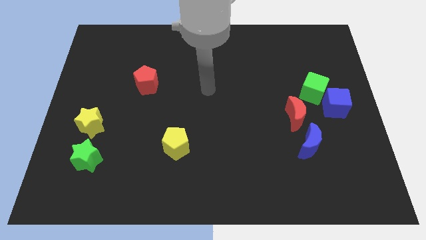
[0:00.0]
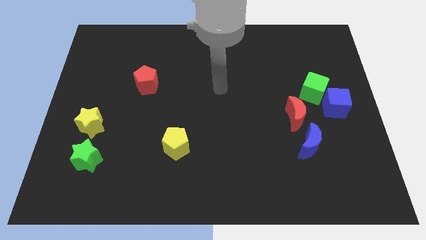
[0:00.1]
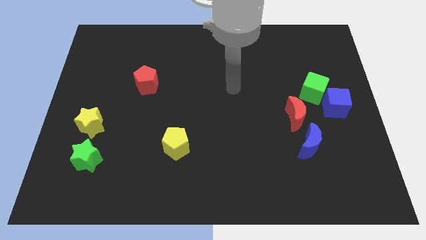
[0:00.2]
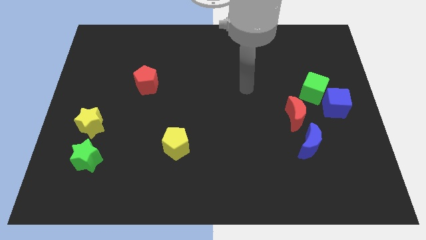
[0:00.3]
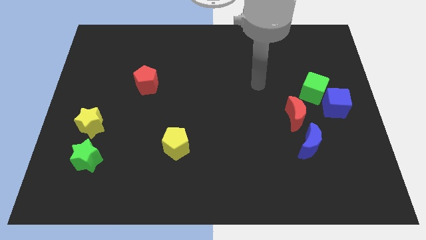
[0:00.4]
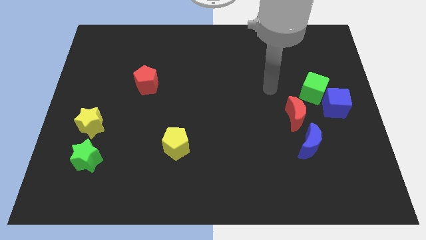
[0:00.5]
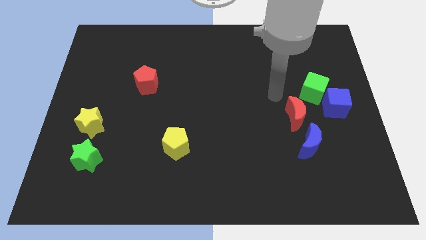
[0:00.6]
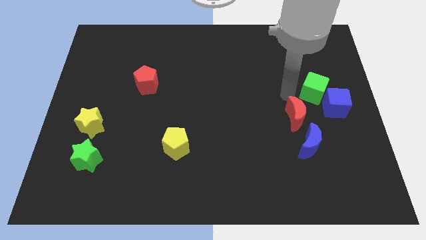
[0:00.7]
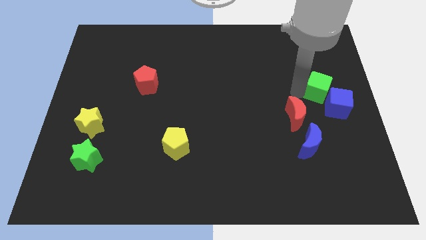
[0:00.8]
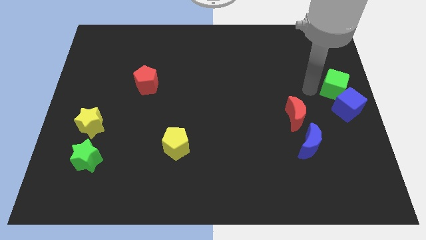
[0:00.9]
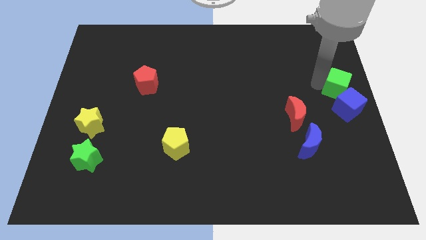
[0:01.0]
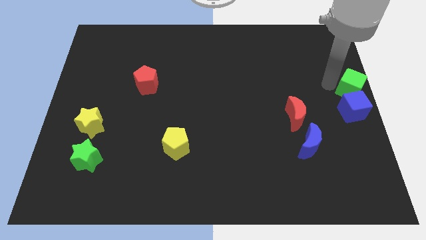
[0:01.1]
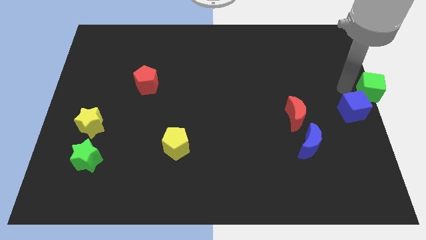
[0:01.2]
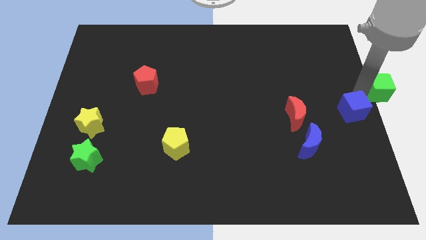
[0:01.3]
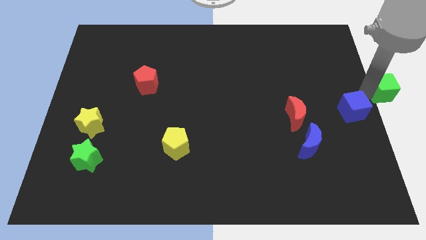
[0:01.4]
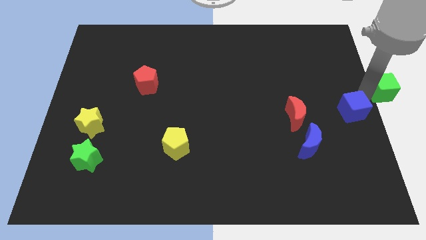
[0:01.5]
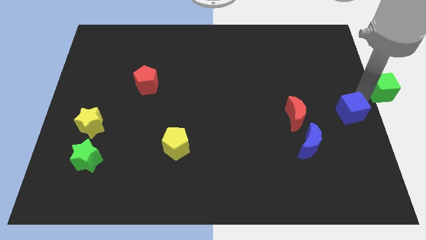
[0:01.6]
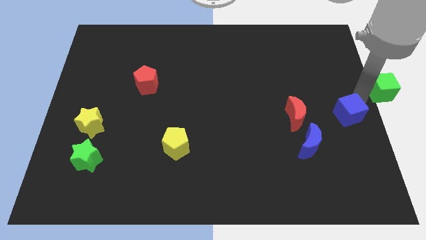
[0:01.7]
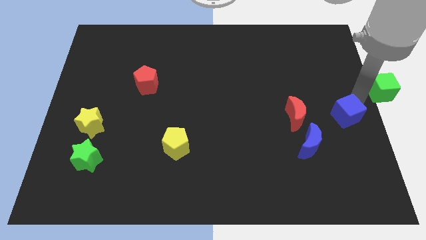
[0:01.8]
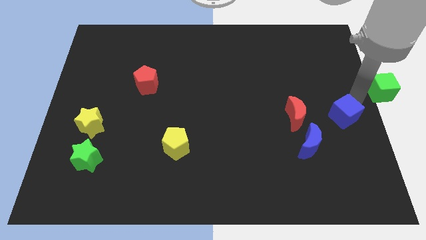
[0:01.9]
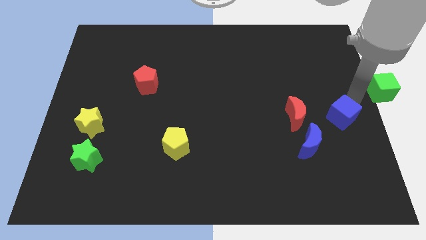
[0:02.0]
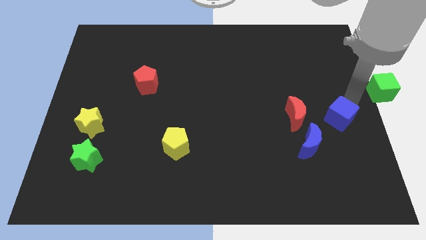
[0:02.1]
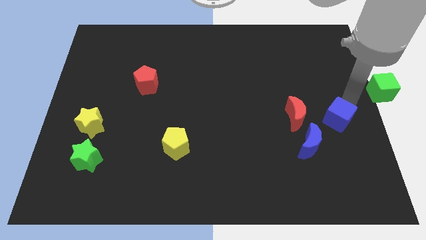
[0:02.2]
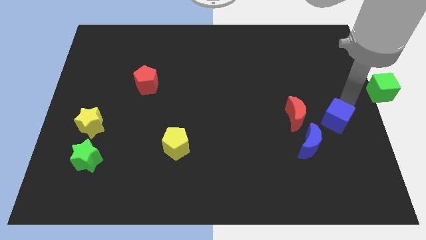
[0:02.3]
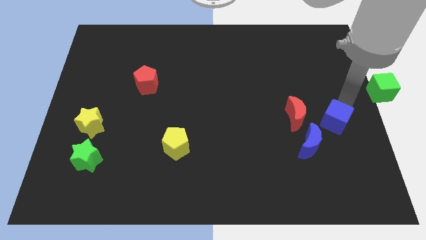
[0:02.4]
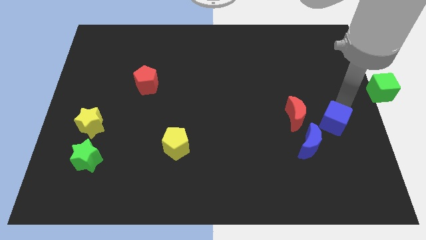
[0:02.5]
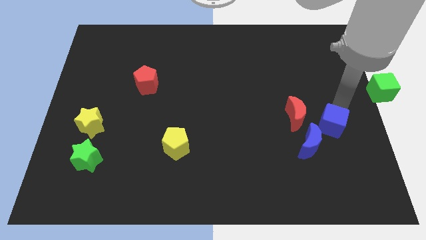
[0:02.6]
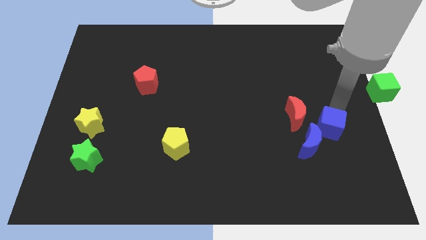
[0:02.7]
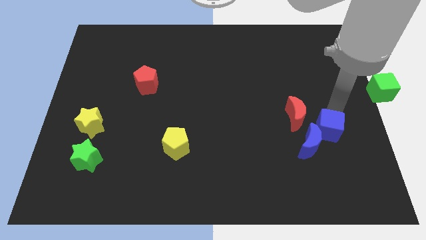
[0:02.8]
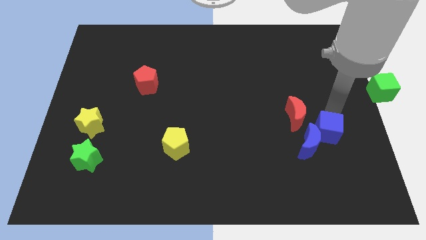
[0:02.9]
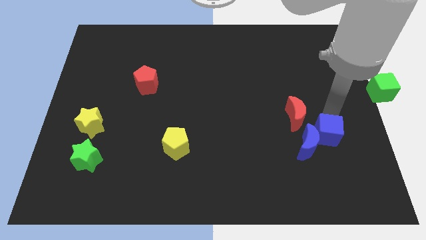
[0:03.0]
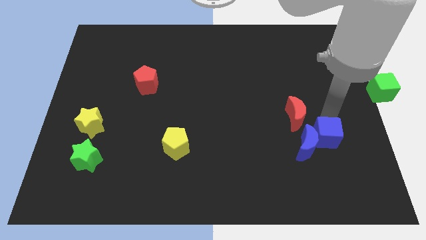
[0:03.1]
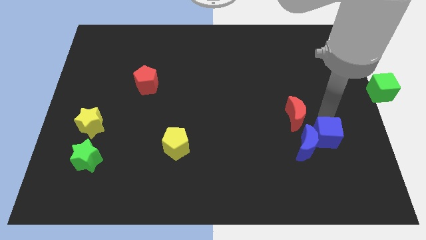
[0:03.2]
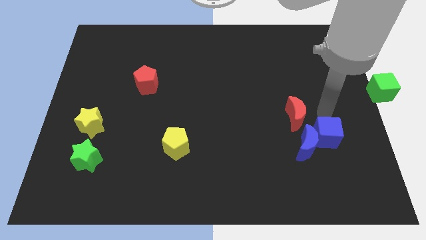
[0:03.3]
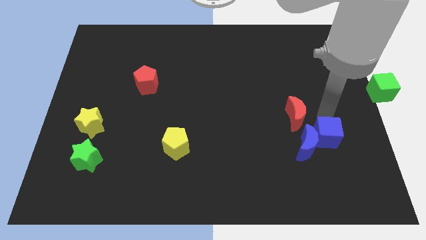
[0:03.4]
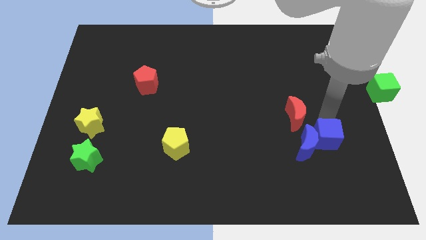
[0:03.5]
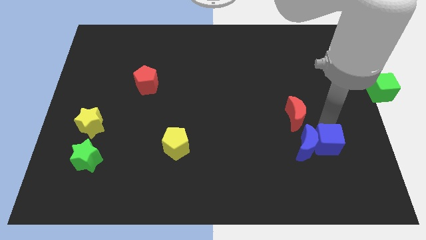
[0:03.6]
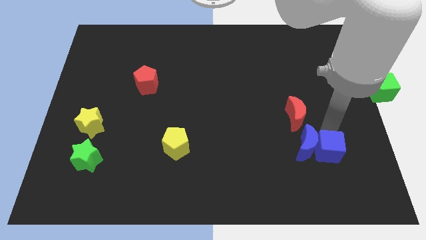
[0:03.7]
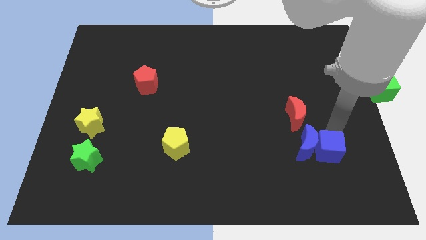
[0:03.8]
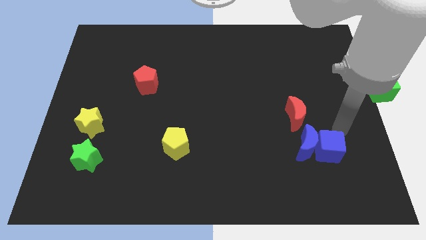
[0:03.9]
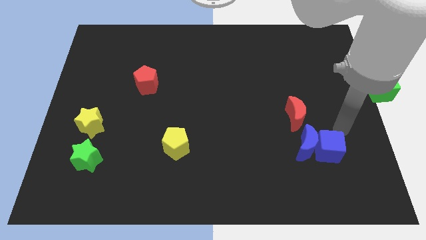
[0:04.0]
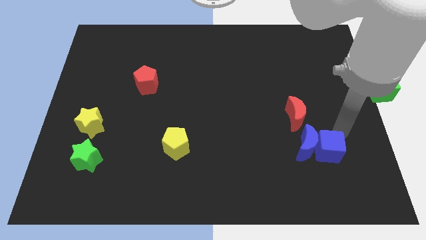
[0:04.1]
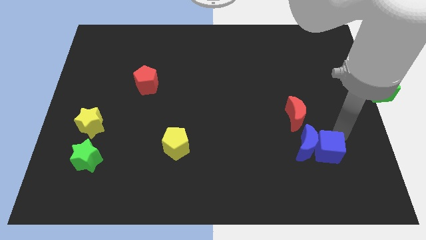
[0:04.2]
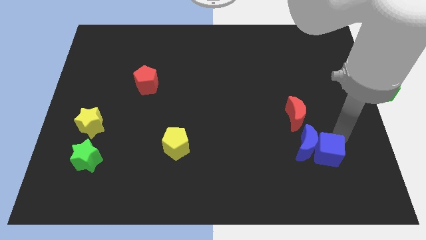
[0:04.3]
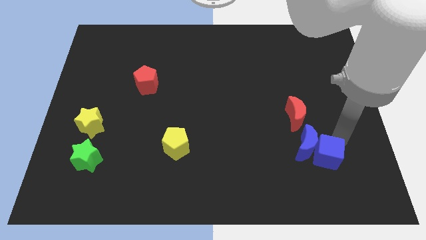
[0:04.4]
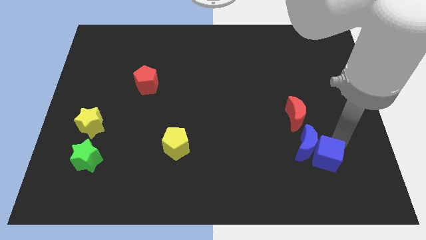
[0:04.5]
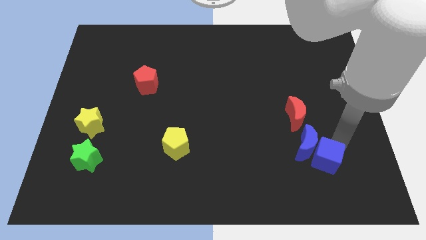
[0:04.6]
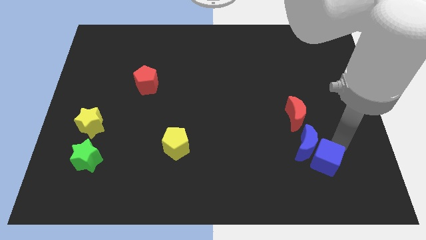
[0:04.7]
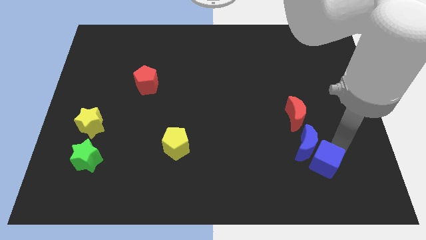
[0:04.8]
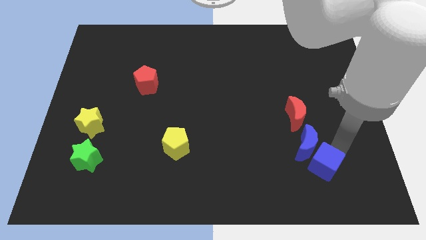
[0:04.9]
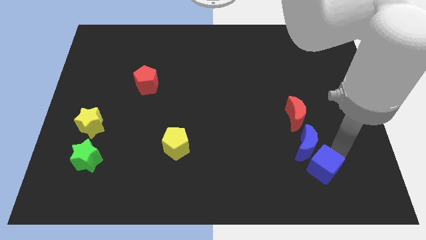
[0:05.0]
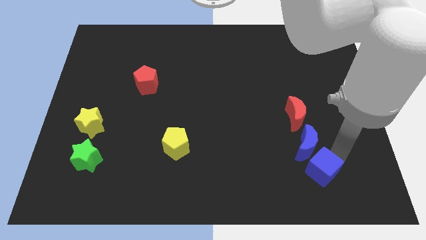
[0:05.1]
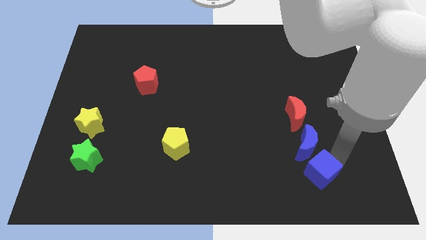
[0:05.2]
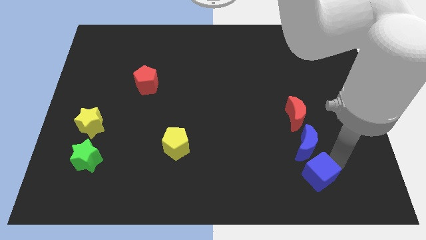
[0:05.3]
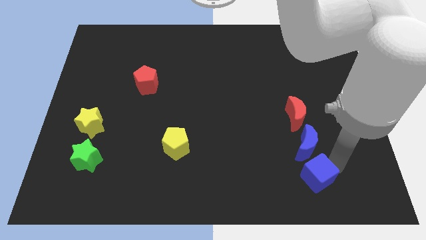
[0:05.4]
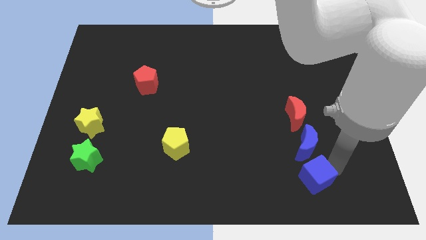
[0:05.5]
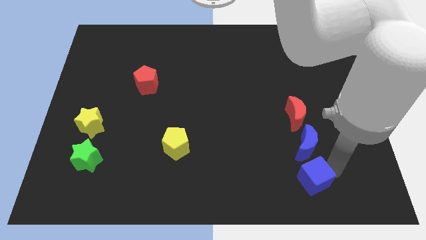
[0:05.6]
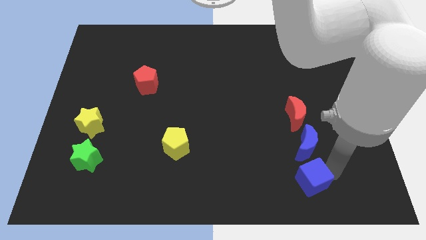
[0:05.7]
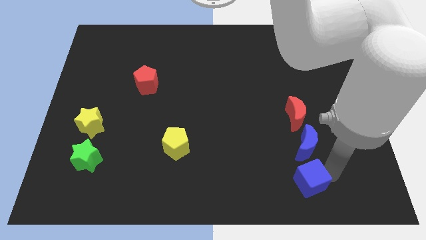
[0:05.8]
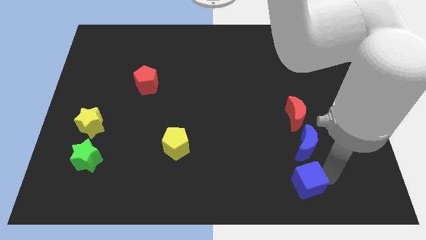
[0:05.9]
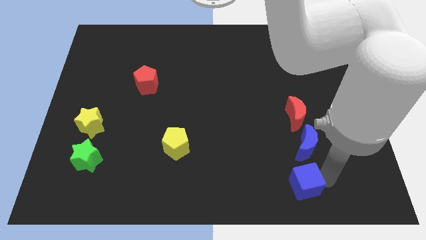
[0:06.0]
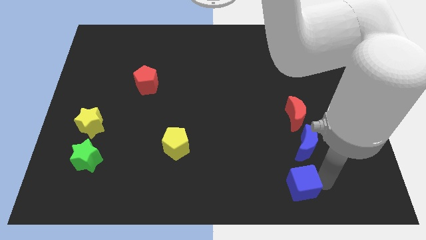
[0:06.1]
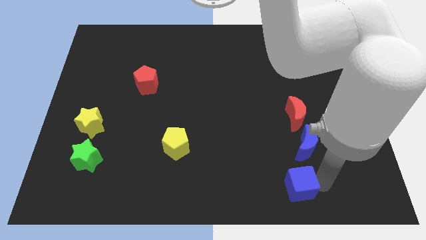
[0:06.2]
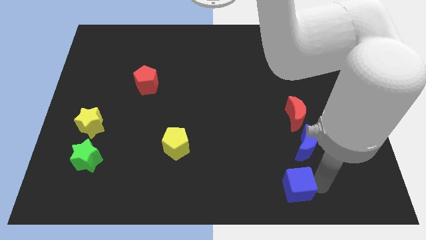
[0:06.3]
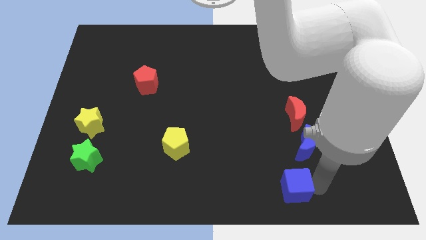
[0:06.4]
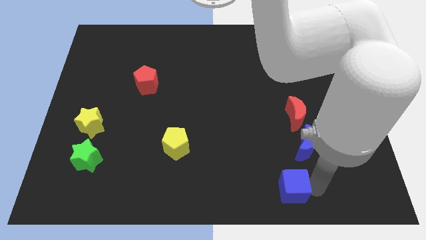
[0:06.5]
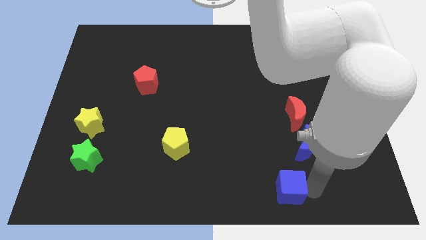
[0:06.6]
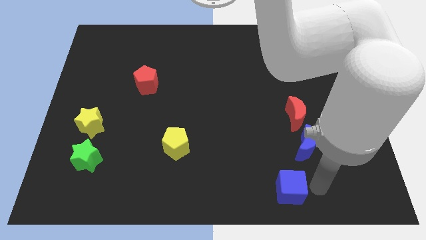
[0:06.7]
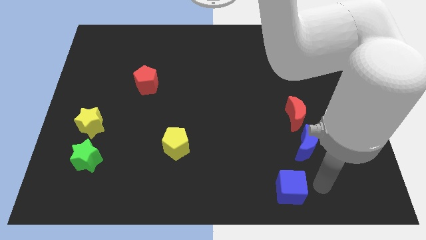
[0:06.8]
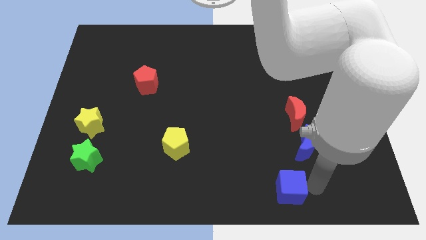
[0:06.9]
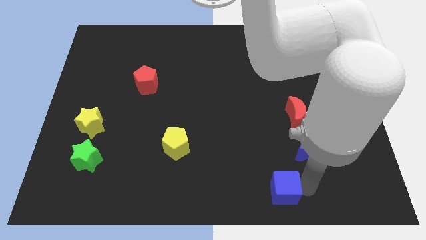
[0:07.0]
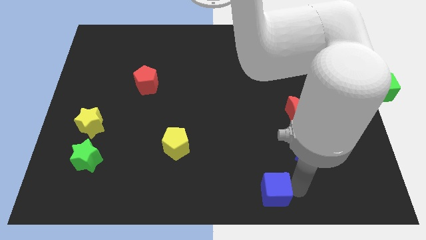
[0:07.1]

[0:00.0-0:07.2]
put the blue cube to the bottom
